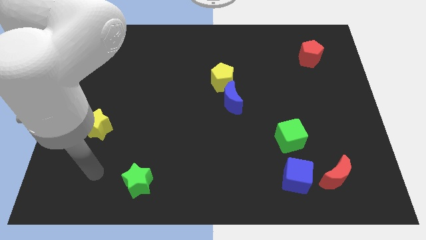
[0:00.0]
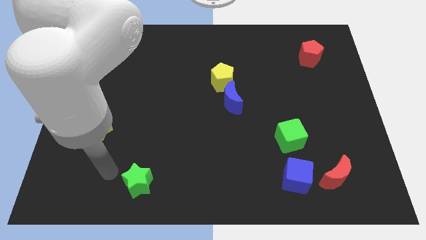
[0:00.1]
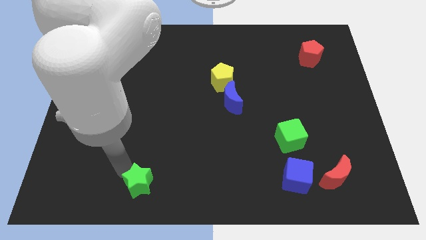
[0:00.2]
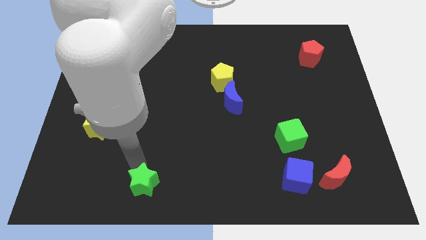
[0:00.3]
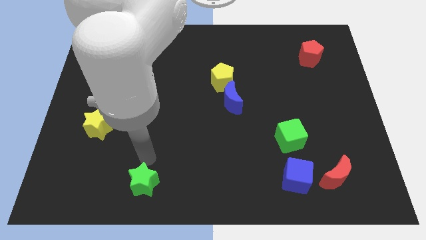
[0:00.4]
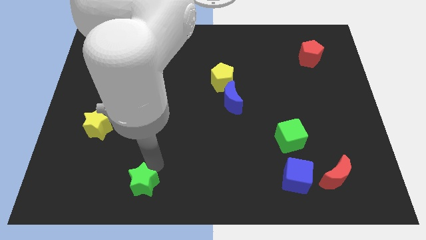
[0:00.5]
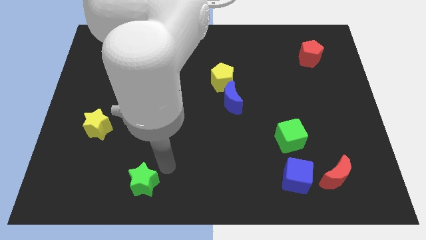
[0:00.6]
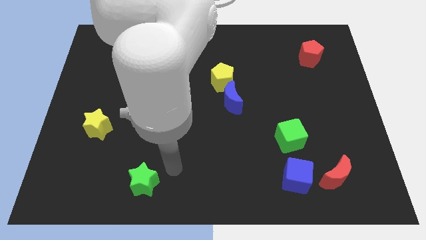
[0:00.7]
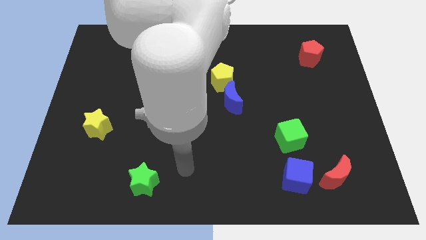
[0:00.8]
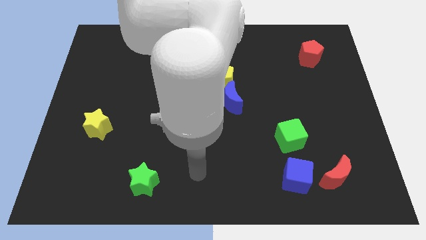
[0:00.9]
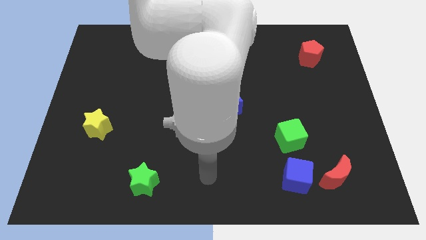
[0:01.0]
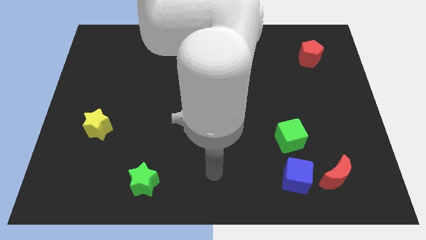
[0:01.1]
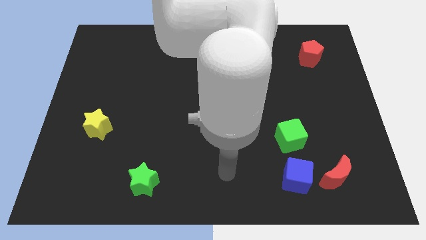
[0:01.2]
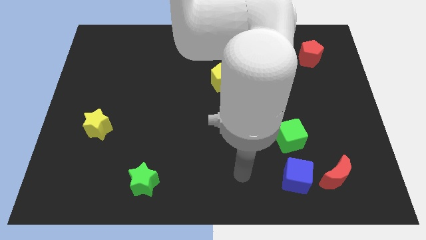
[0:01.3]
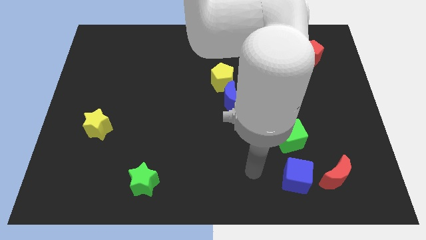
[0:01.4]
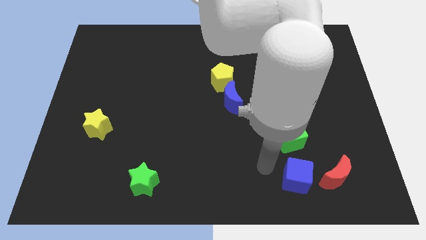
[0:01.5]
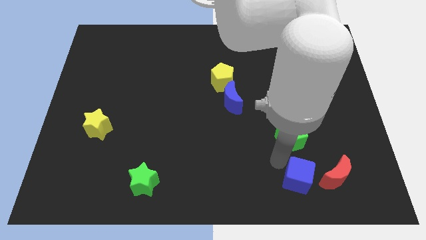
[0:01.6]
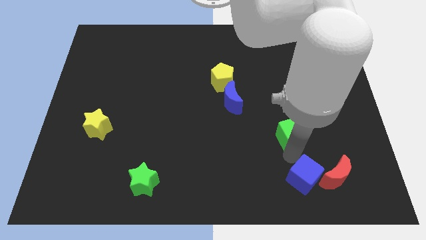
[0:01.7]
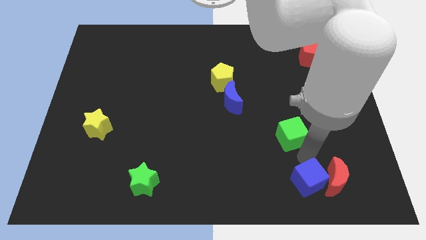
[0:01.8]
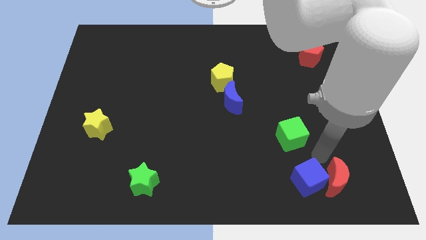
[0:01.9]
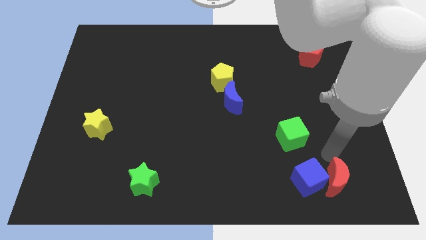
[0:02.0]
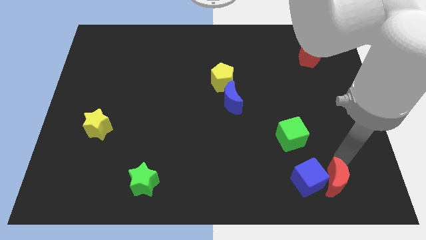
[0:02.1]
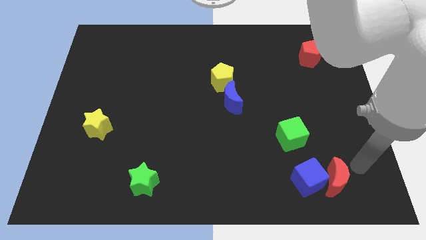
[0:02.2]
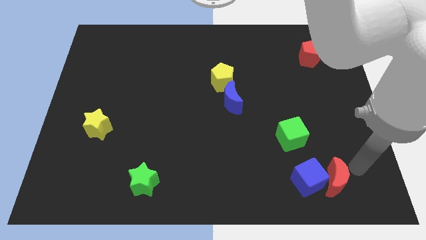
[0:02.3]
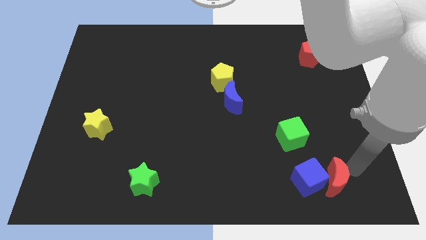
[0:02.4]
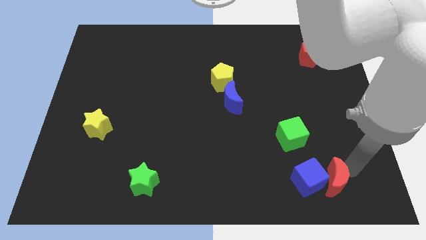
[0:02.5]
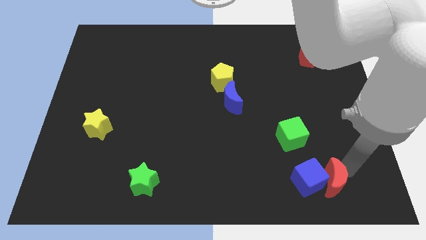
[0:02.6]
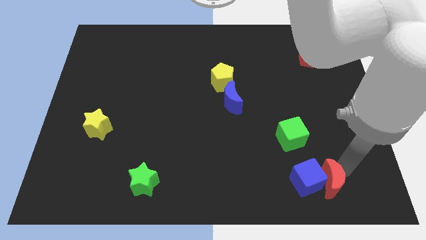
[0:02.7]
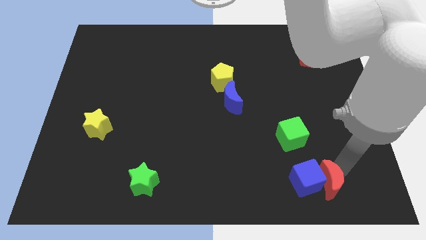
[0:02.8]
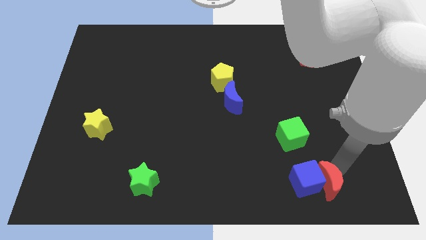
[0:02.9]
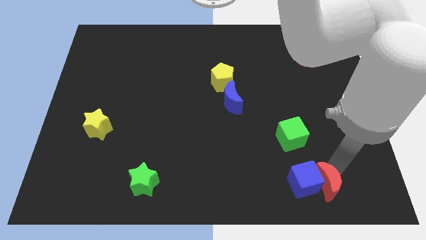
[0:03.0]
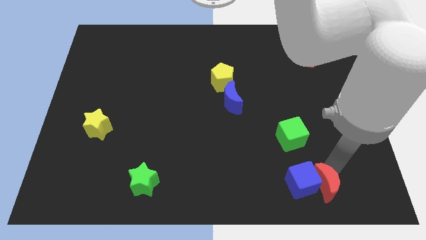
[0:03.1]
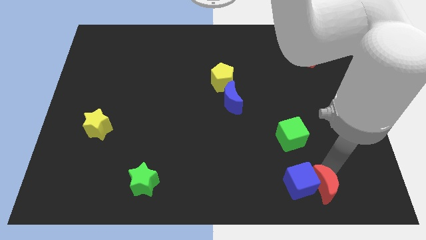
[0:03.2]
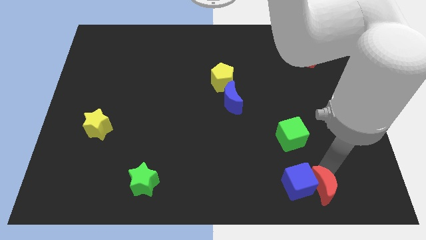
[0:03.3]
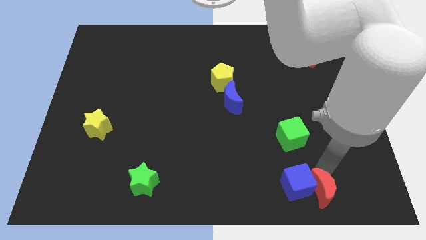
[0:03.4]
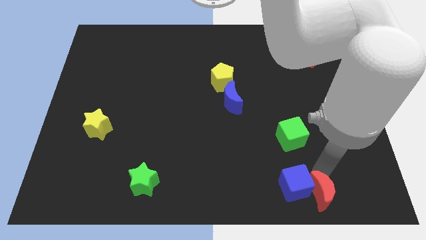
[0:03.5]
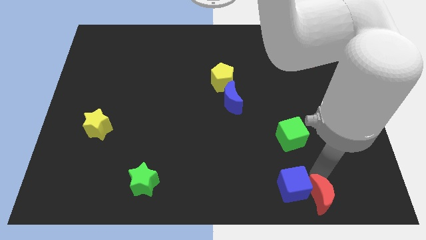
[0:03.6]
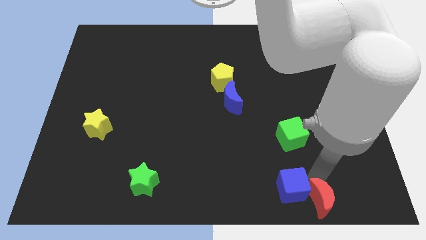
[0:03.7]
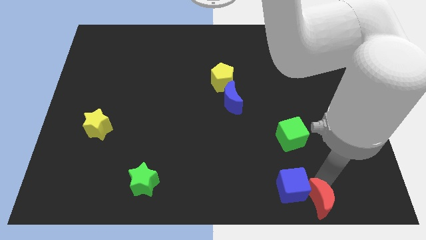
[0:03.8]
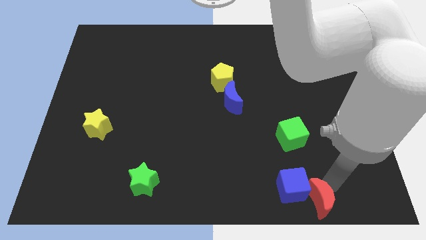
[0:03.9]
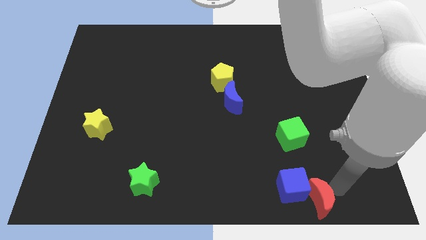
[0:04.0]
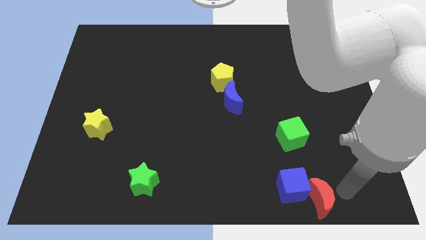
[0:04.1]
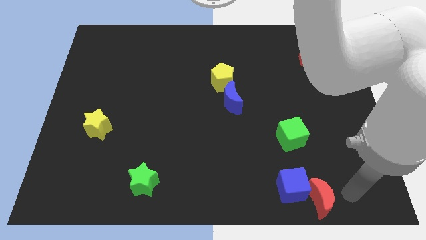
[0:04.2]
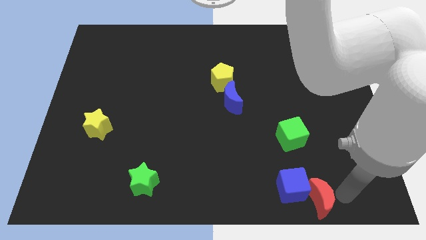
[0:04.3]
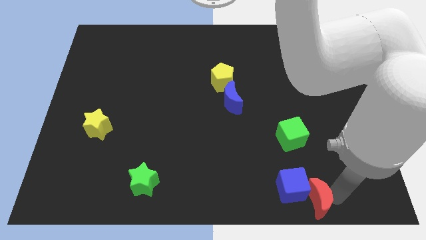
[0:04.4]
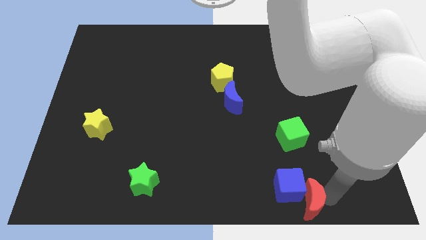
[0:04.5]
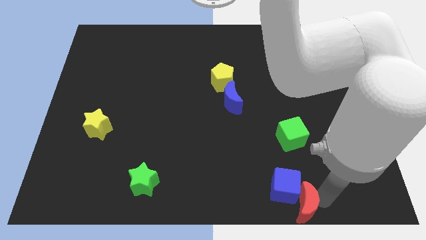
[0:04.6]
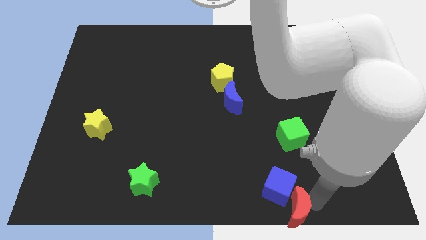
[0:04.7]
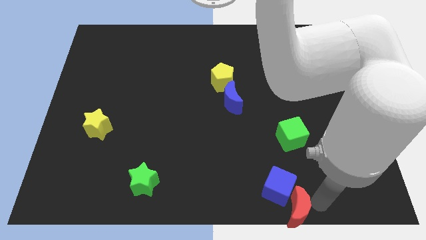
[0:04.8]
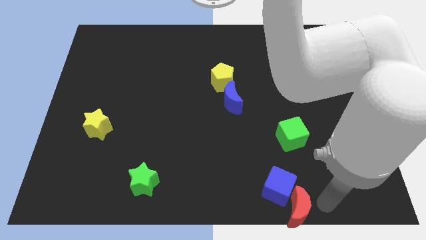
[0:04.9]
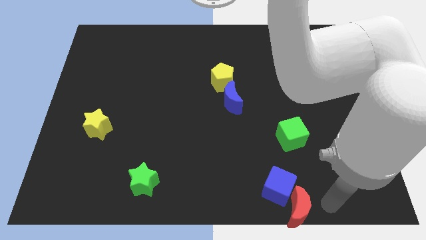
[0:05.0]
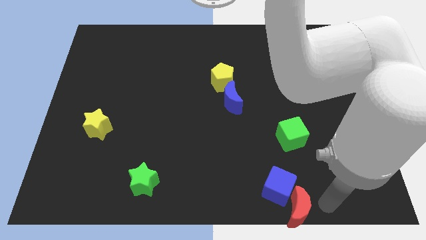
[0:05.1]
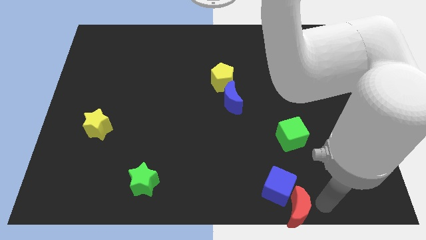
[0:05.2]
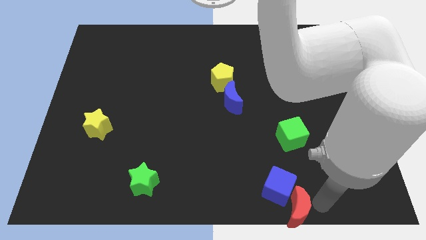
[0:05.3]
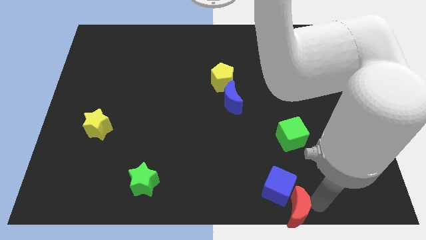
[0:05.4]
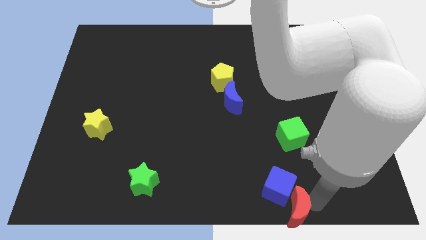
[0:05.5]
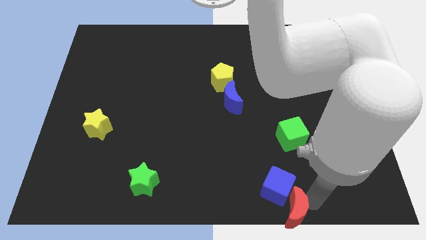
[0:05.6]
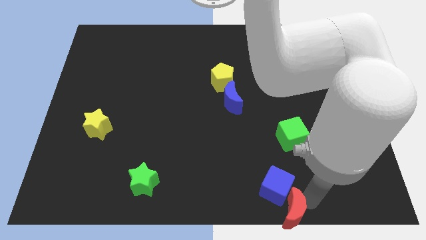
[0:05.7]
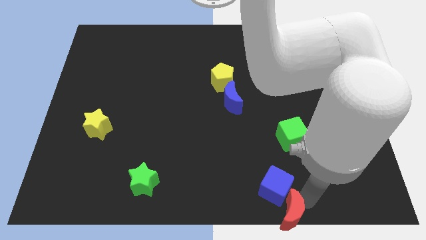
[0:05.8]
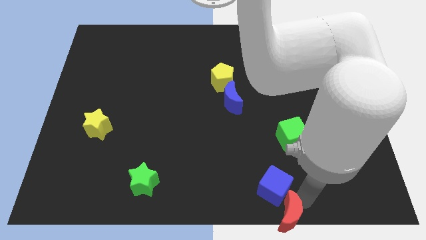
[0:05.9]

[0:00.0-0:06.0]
slide the red moon to the bottom side

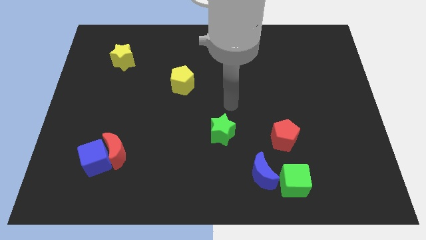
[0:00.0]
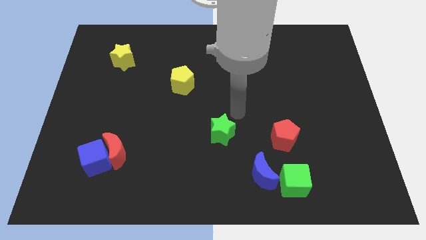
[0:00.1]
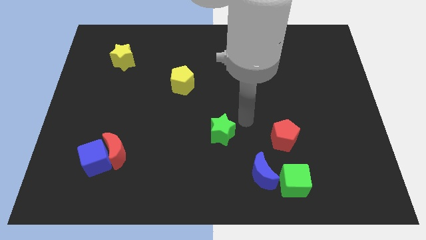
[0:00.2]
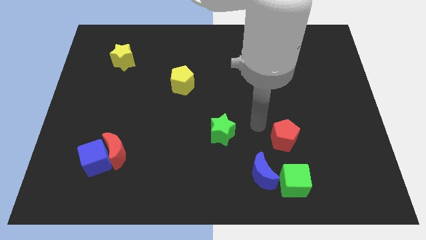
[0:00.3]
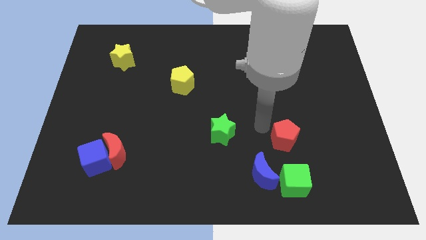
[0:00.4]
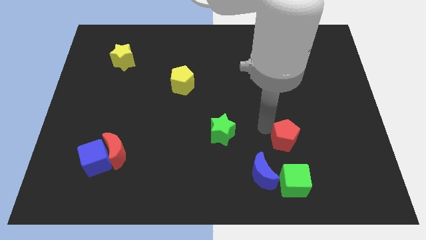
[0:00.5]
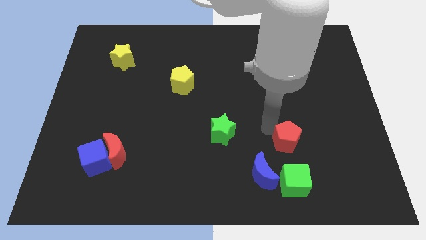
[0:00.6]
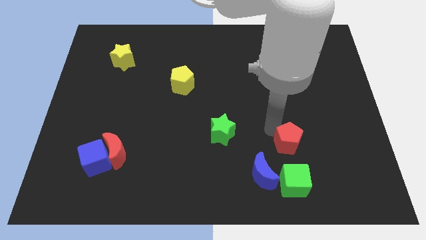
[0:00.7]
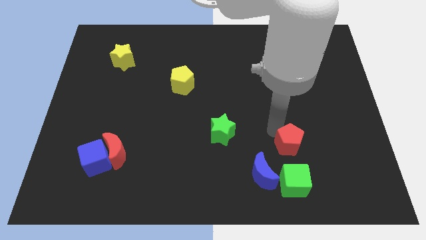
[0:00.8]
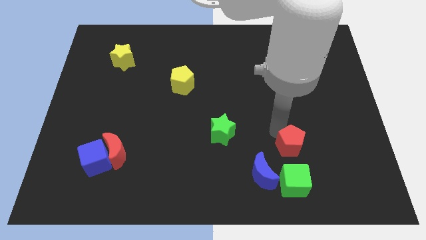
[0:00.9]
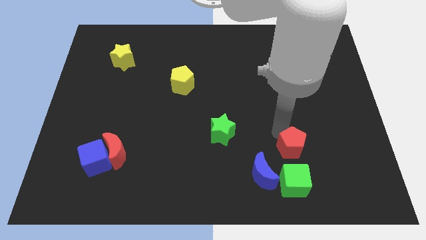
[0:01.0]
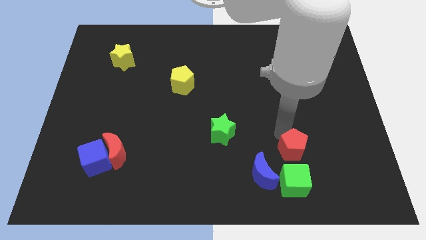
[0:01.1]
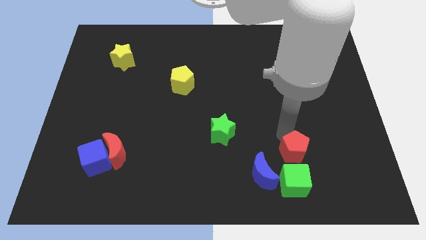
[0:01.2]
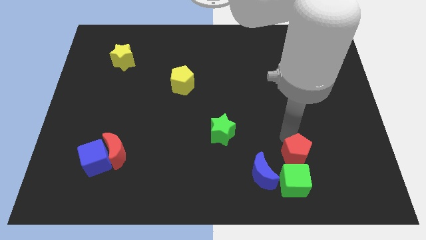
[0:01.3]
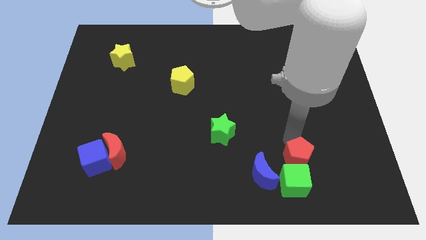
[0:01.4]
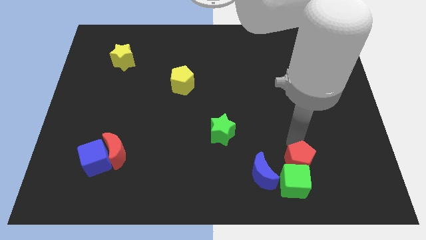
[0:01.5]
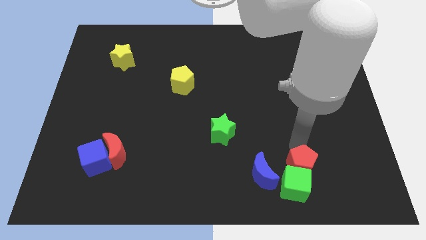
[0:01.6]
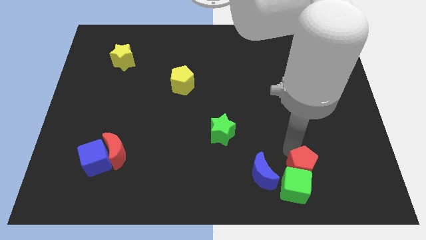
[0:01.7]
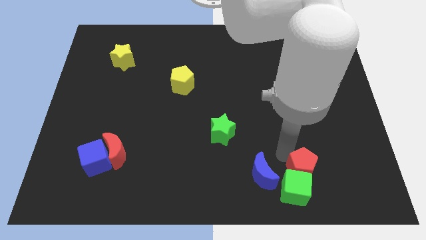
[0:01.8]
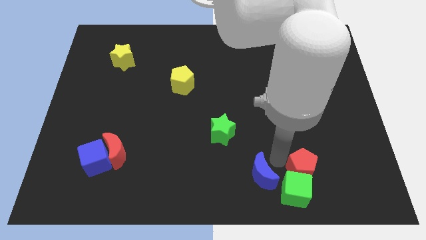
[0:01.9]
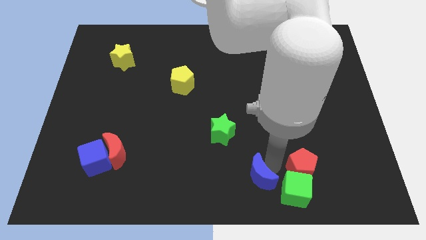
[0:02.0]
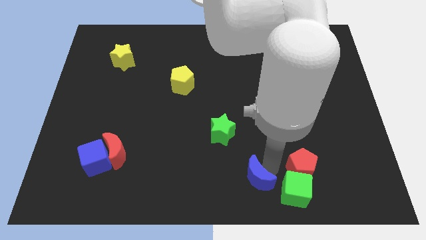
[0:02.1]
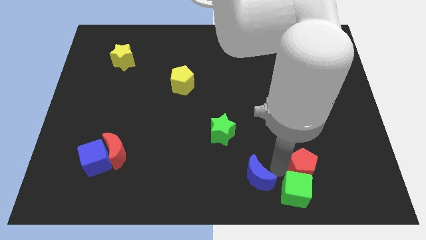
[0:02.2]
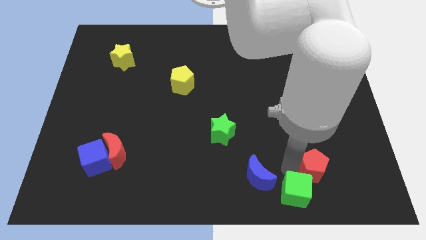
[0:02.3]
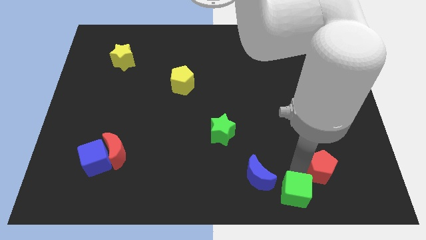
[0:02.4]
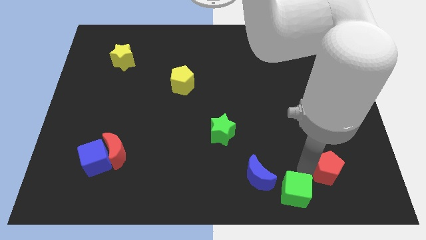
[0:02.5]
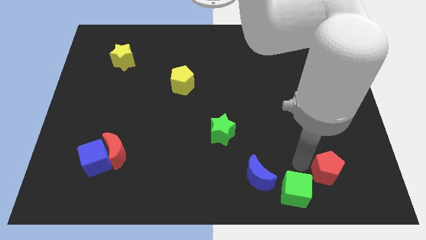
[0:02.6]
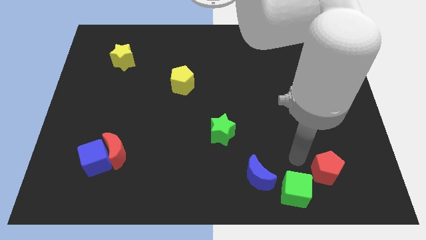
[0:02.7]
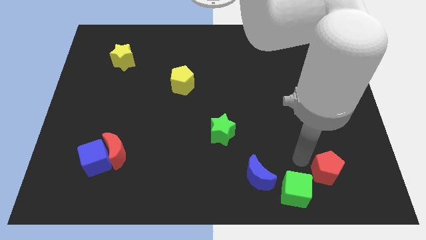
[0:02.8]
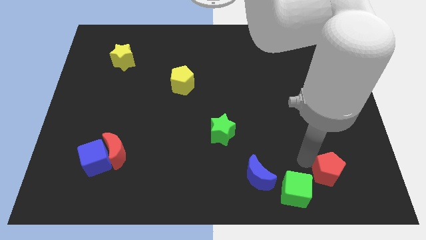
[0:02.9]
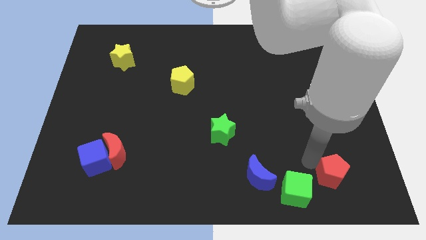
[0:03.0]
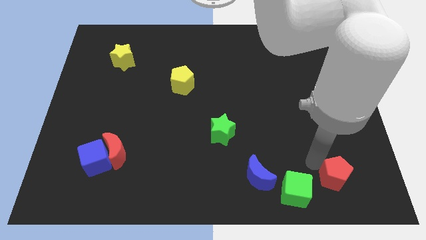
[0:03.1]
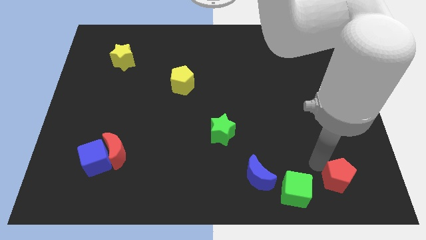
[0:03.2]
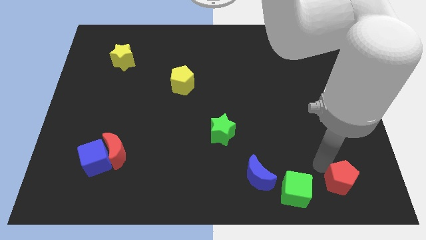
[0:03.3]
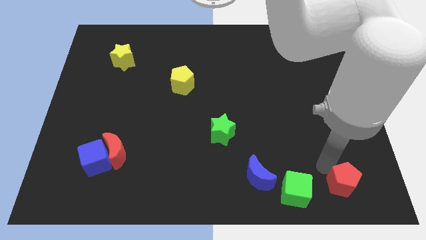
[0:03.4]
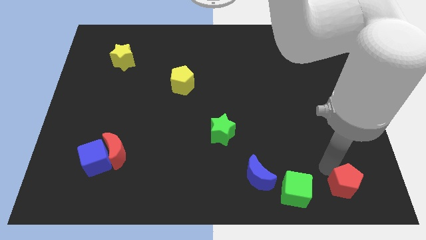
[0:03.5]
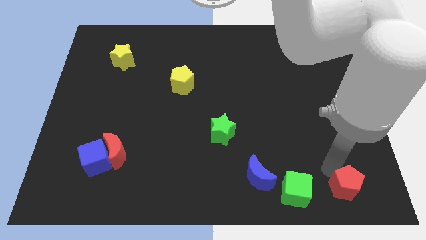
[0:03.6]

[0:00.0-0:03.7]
push the red pentagon to the bottom right
